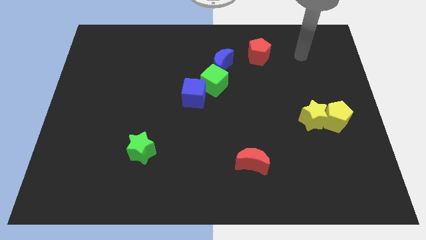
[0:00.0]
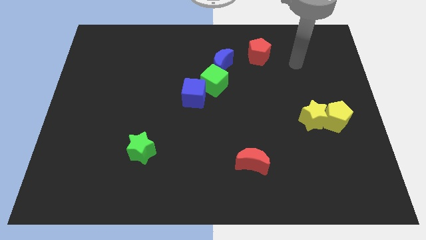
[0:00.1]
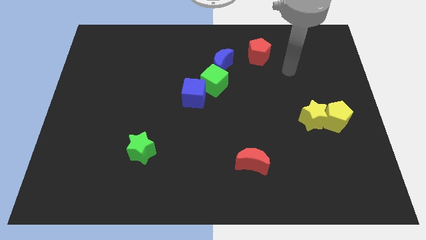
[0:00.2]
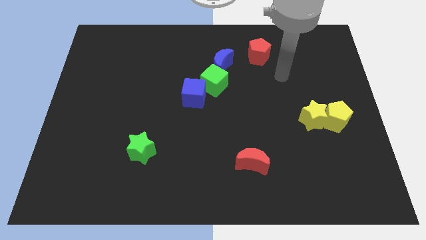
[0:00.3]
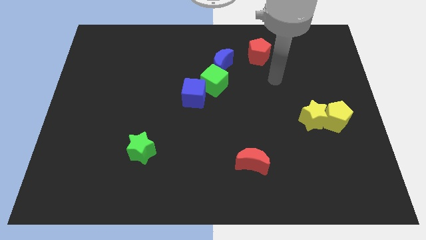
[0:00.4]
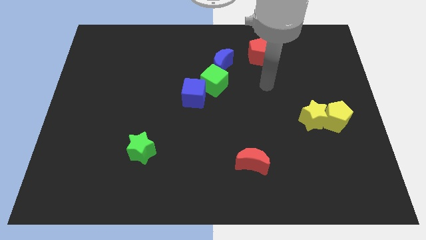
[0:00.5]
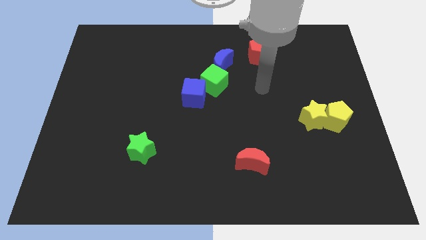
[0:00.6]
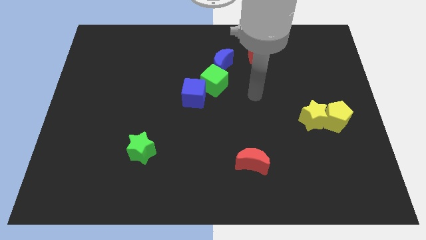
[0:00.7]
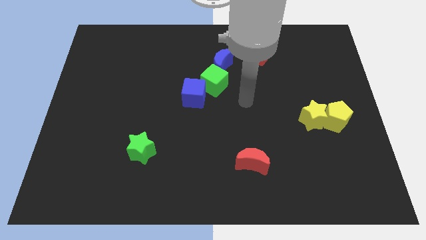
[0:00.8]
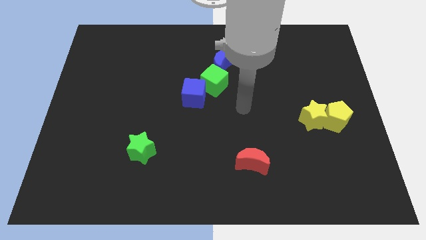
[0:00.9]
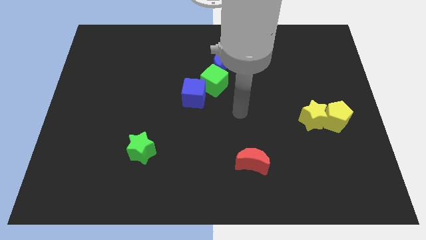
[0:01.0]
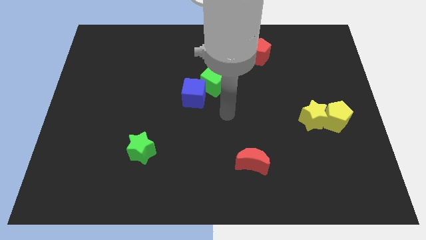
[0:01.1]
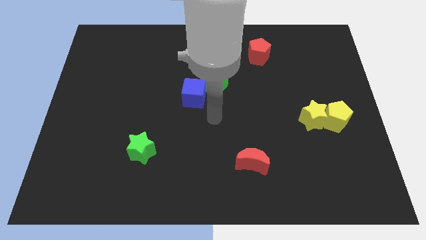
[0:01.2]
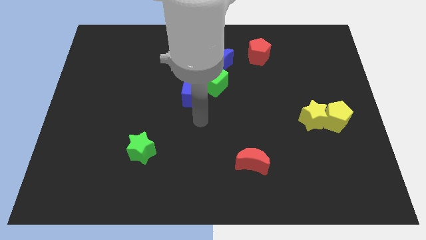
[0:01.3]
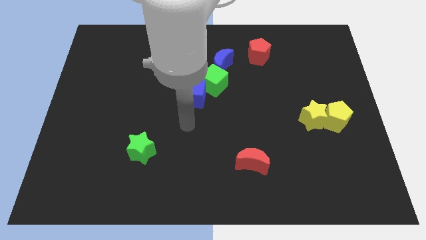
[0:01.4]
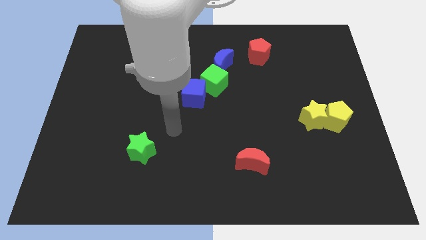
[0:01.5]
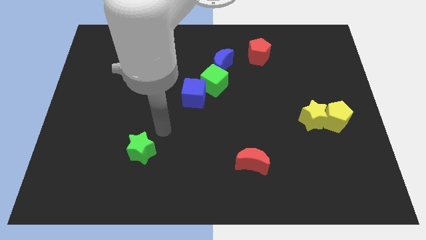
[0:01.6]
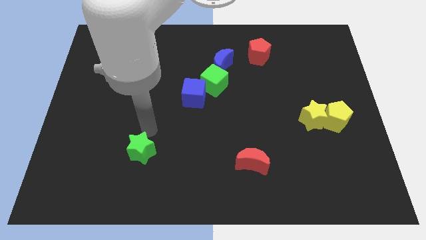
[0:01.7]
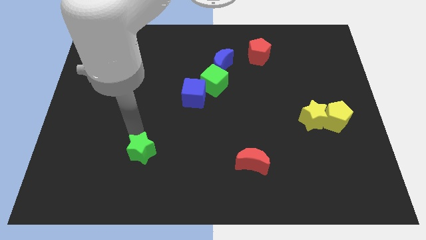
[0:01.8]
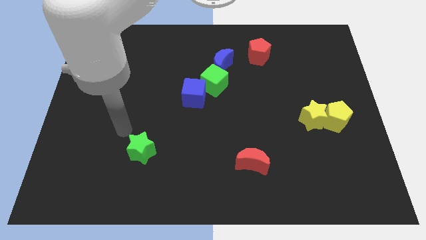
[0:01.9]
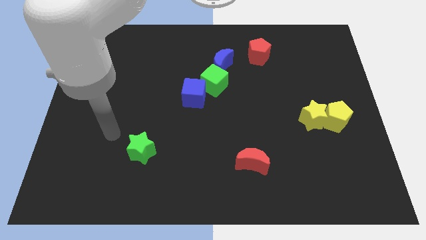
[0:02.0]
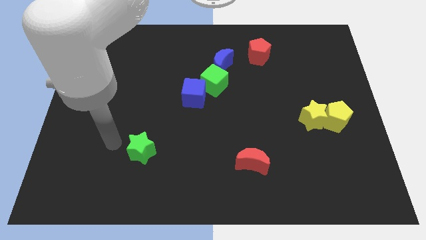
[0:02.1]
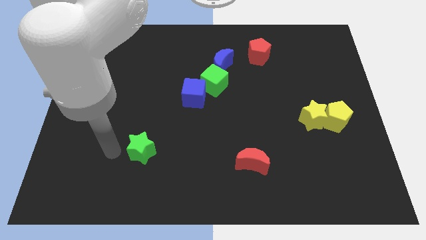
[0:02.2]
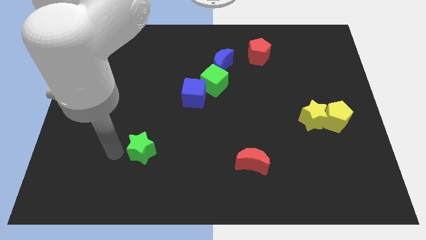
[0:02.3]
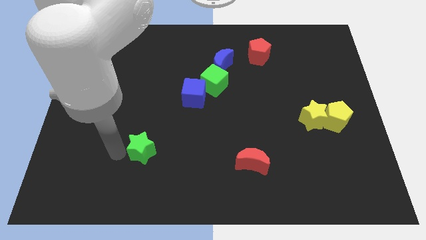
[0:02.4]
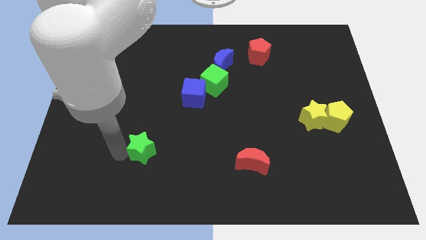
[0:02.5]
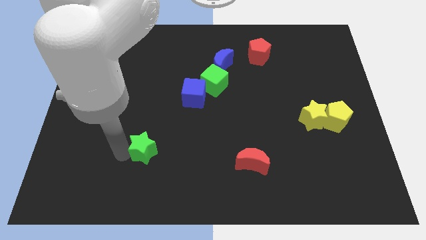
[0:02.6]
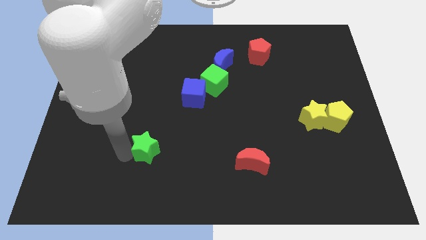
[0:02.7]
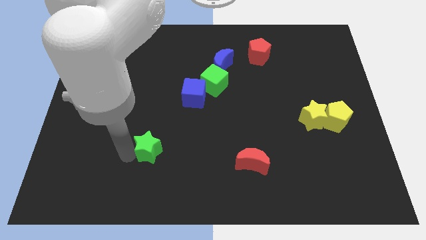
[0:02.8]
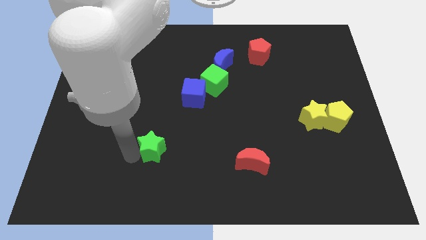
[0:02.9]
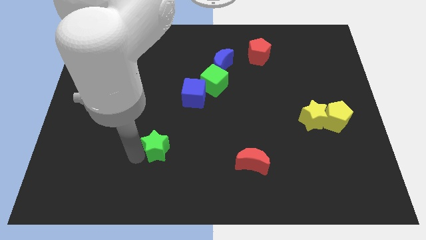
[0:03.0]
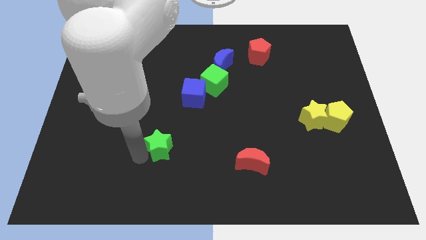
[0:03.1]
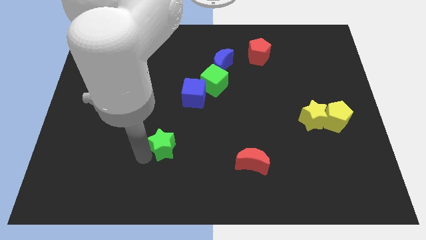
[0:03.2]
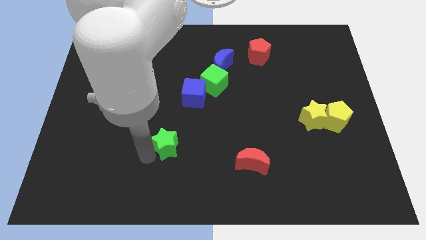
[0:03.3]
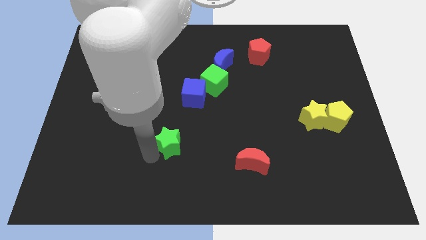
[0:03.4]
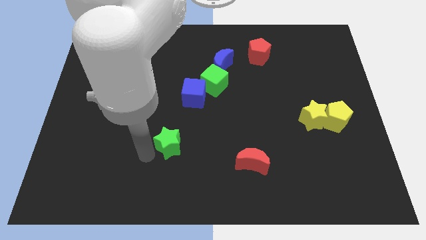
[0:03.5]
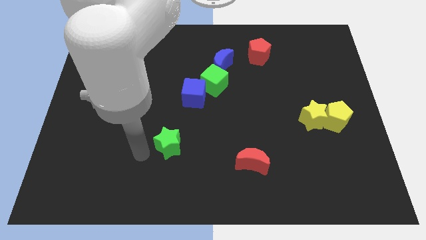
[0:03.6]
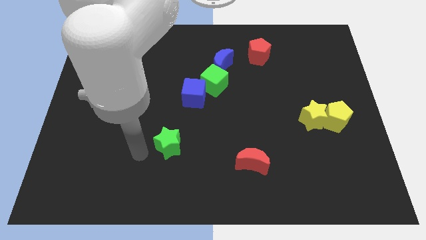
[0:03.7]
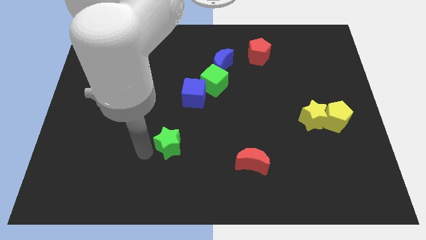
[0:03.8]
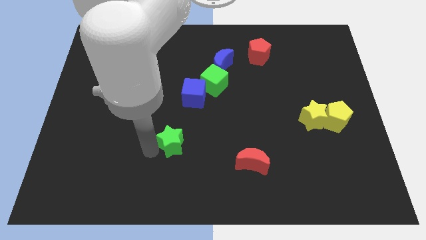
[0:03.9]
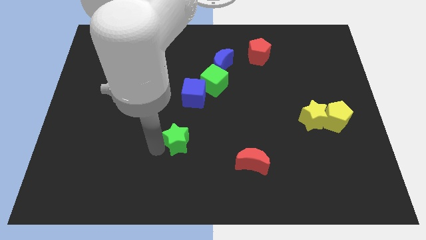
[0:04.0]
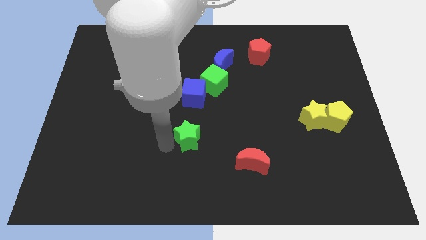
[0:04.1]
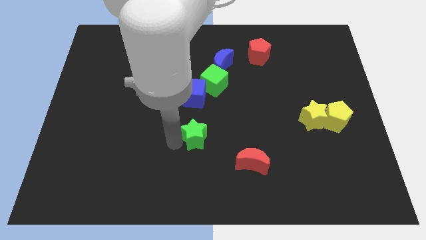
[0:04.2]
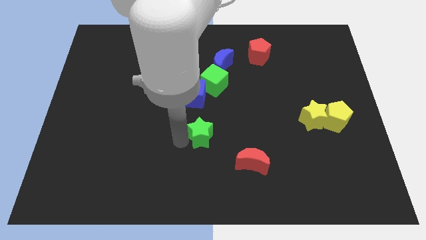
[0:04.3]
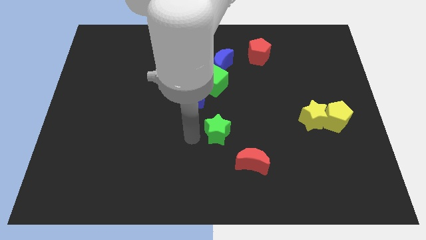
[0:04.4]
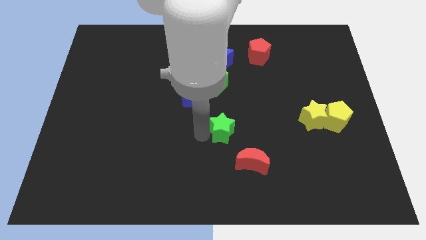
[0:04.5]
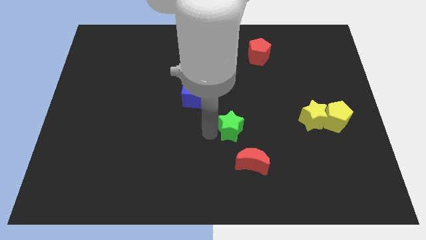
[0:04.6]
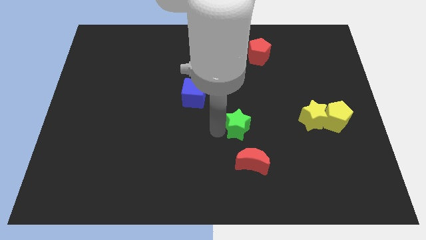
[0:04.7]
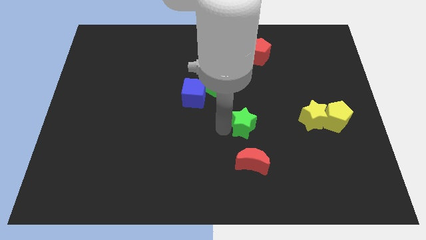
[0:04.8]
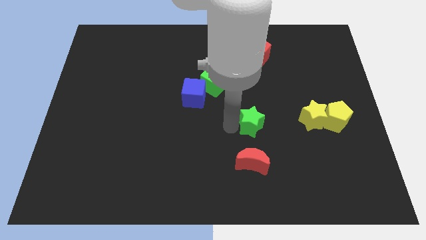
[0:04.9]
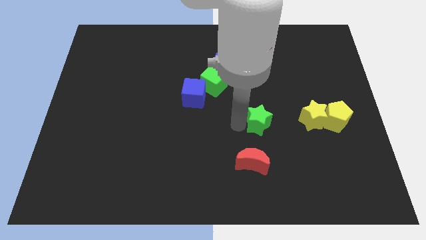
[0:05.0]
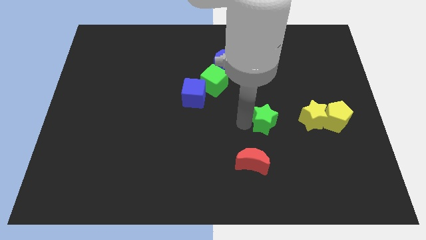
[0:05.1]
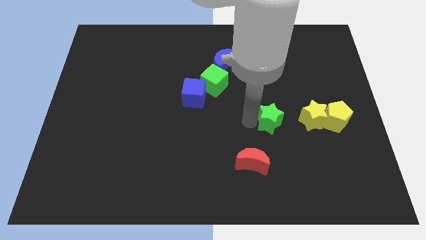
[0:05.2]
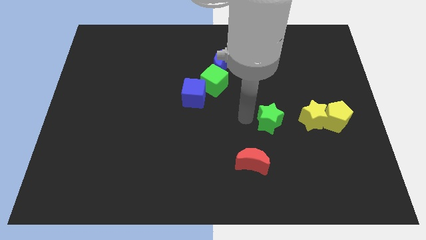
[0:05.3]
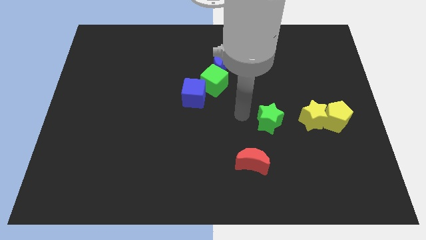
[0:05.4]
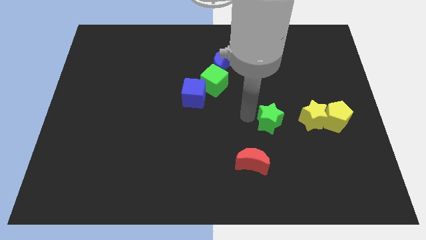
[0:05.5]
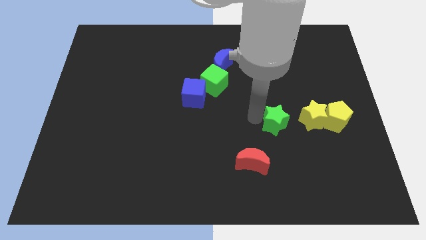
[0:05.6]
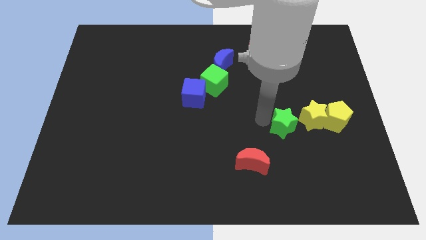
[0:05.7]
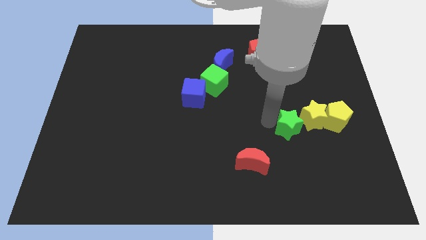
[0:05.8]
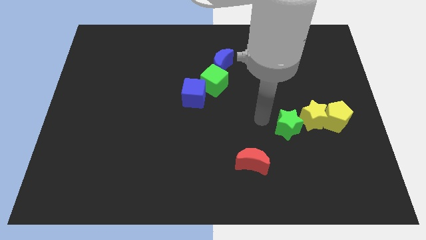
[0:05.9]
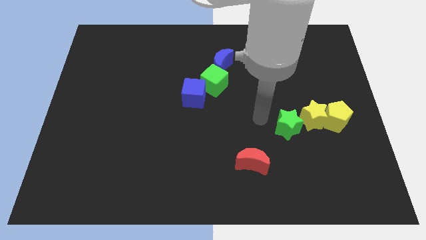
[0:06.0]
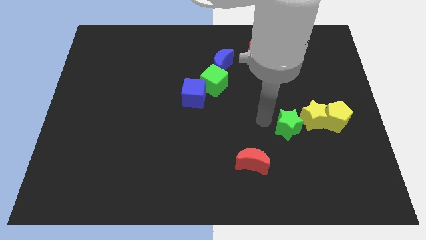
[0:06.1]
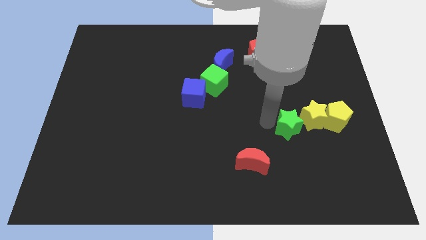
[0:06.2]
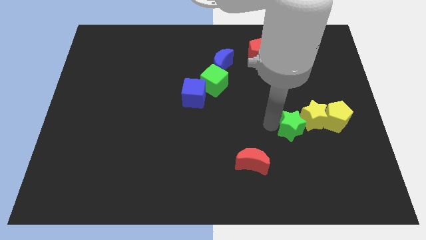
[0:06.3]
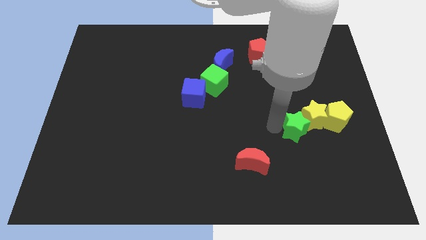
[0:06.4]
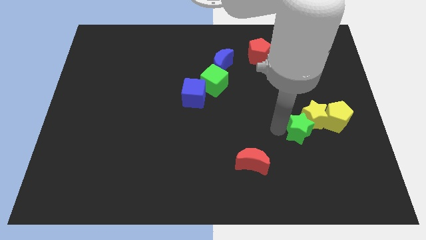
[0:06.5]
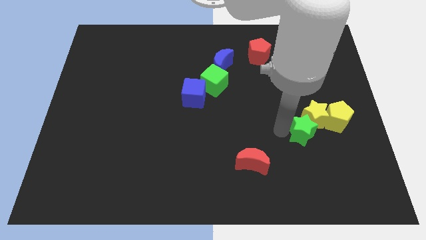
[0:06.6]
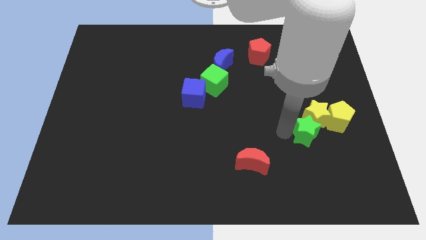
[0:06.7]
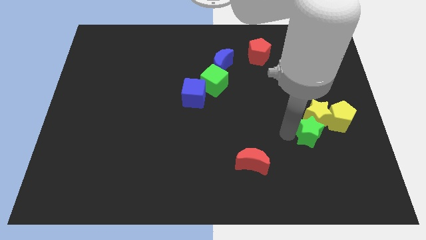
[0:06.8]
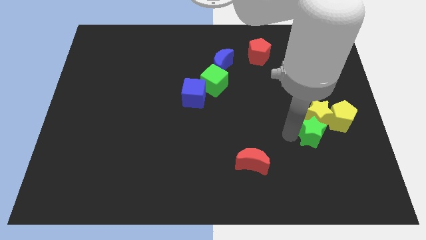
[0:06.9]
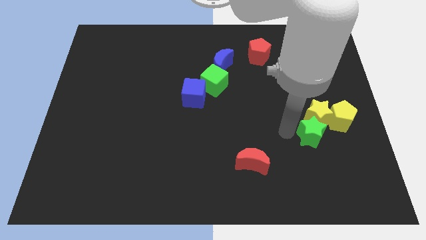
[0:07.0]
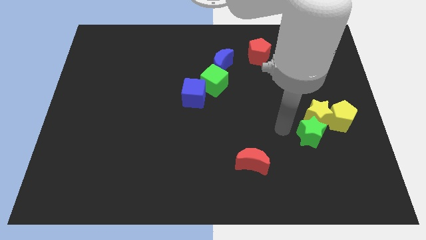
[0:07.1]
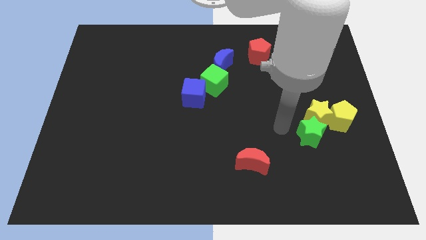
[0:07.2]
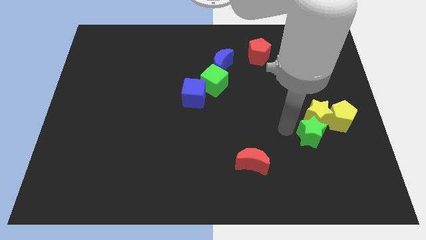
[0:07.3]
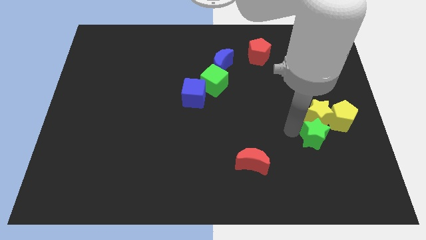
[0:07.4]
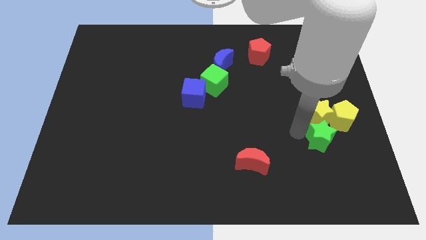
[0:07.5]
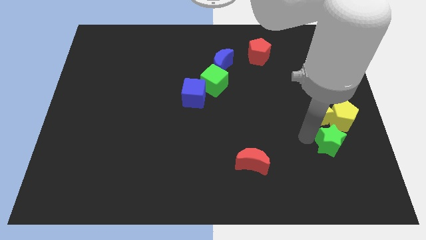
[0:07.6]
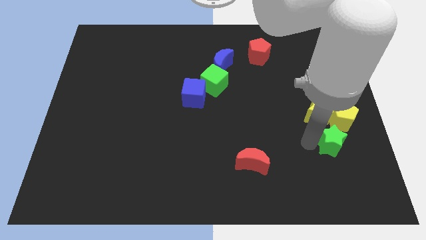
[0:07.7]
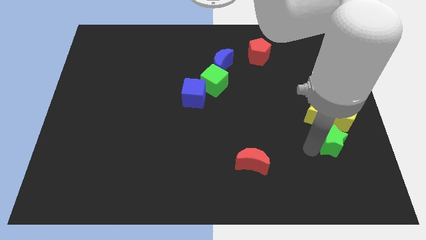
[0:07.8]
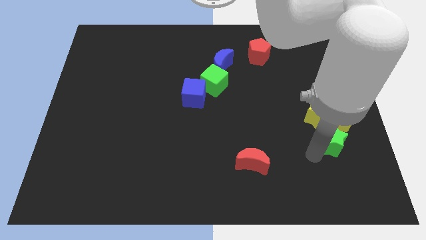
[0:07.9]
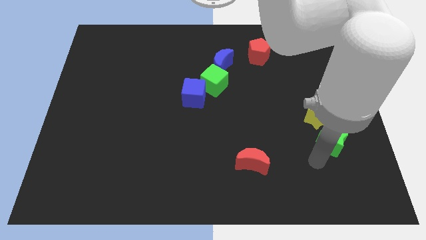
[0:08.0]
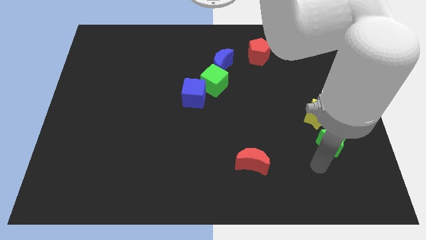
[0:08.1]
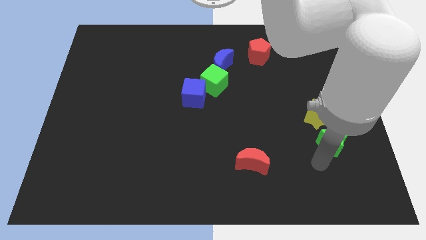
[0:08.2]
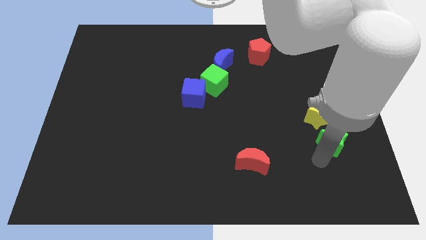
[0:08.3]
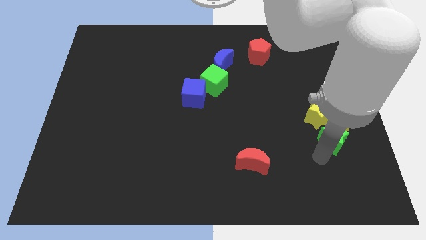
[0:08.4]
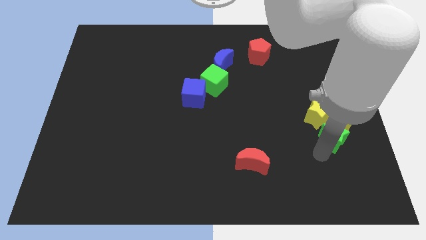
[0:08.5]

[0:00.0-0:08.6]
push the green star towards the yellow pentagon
